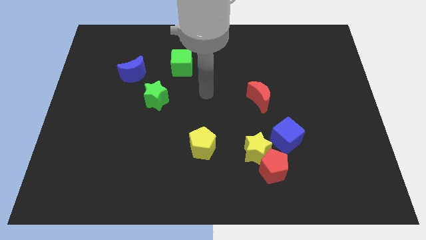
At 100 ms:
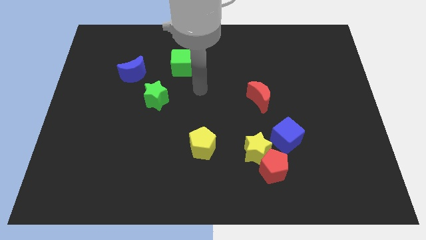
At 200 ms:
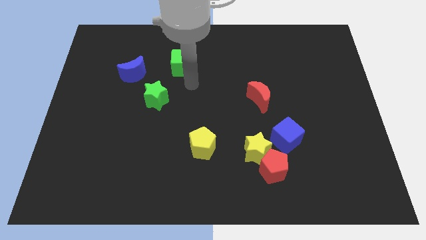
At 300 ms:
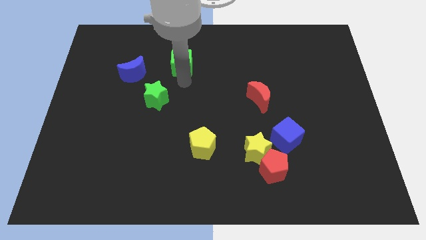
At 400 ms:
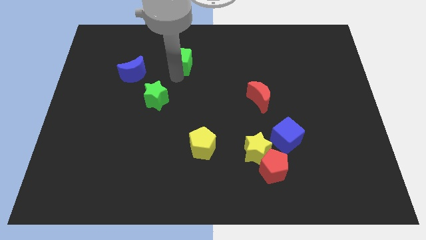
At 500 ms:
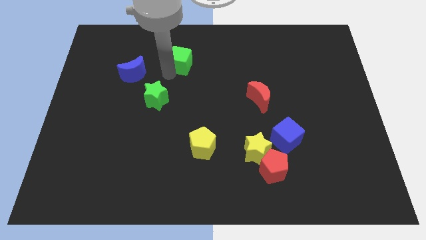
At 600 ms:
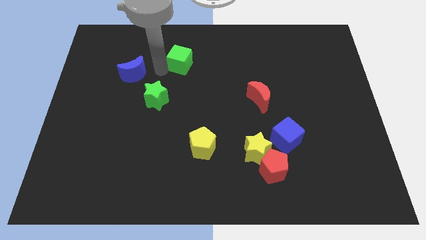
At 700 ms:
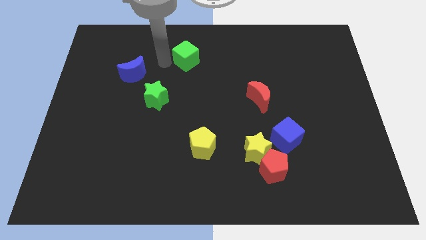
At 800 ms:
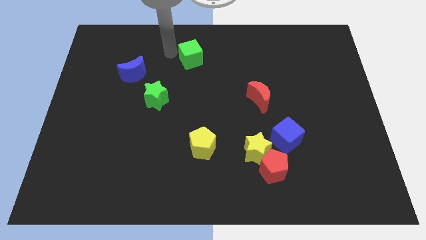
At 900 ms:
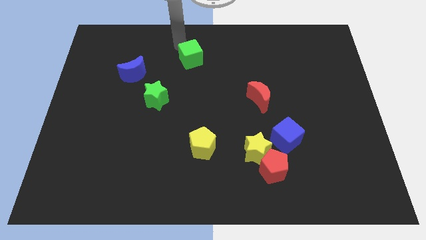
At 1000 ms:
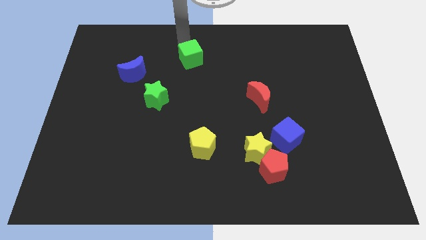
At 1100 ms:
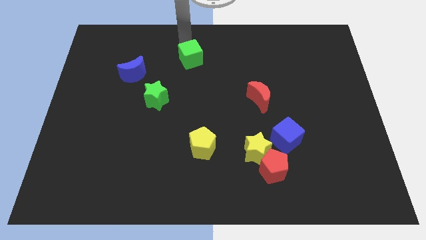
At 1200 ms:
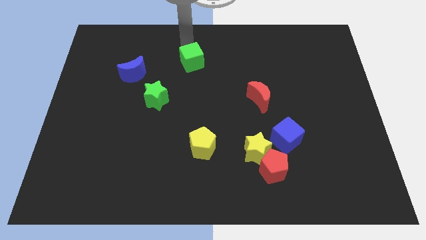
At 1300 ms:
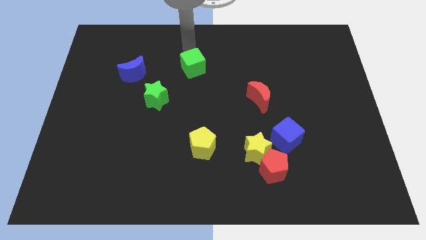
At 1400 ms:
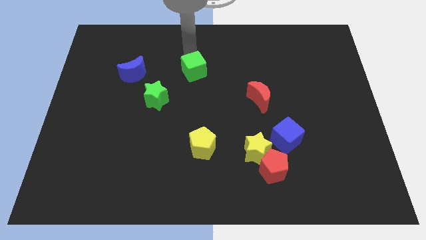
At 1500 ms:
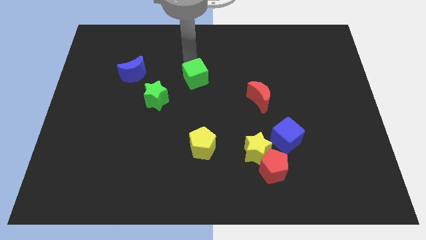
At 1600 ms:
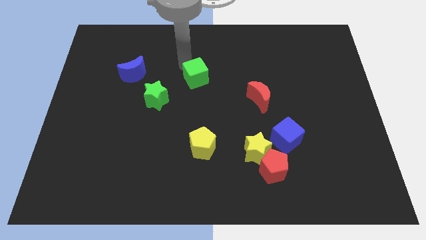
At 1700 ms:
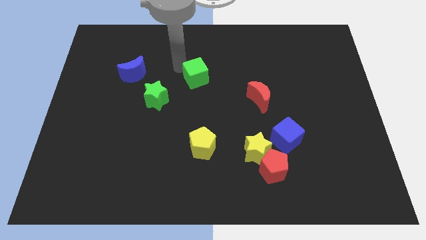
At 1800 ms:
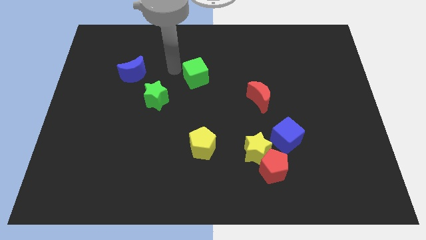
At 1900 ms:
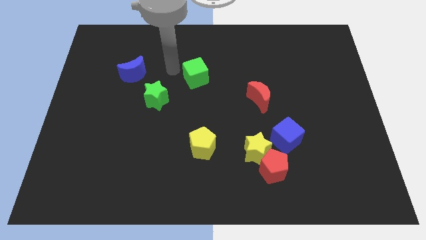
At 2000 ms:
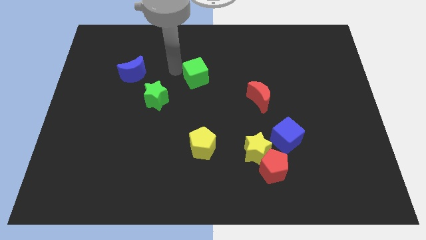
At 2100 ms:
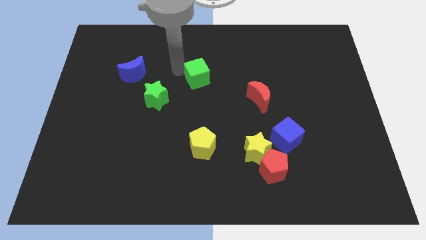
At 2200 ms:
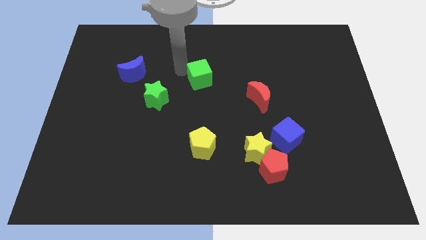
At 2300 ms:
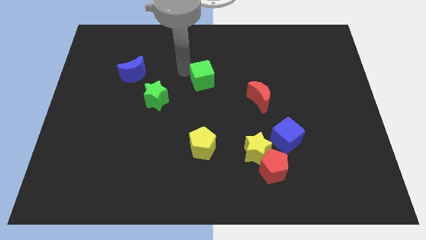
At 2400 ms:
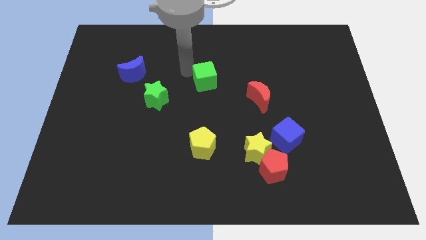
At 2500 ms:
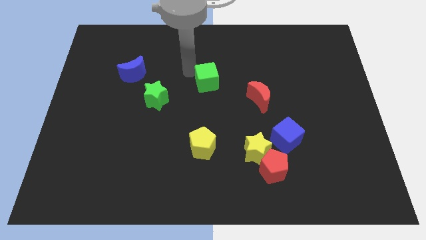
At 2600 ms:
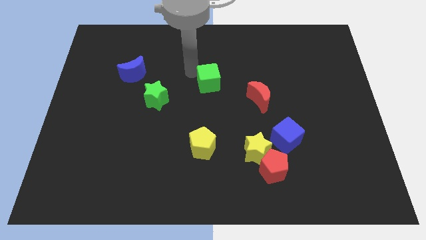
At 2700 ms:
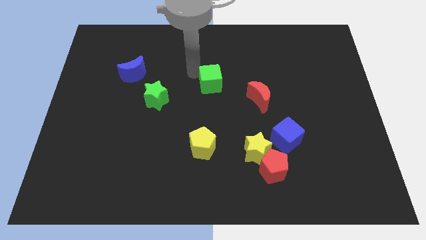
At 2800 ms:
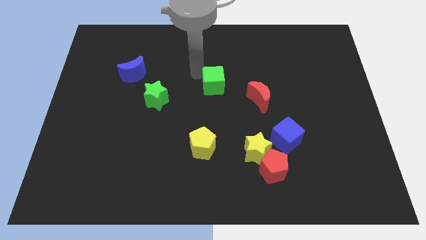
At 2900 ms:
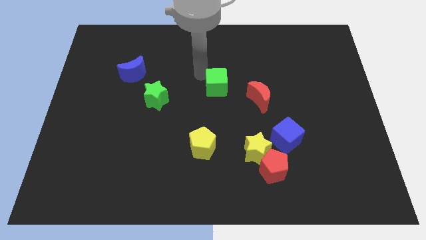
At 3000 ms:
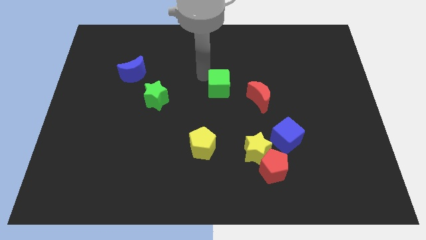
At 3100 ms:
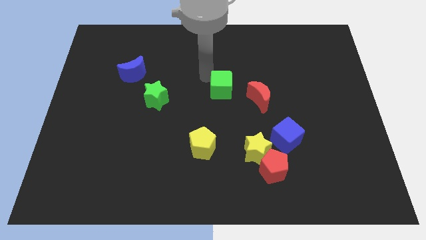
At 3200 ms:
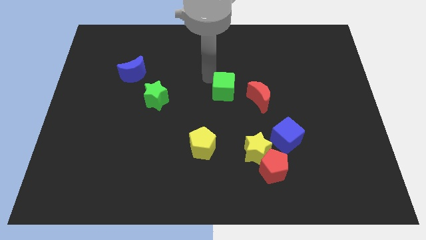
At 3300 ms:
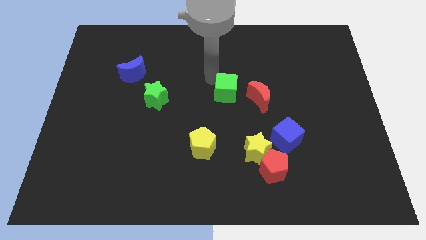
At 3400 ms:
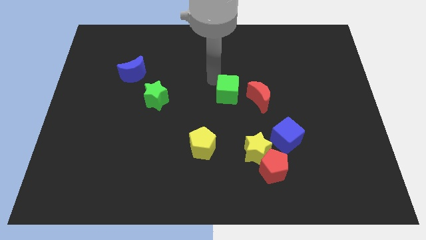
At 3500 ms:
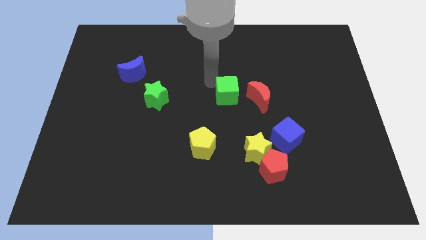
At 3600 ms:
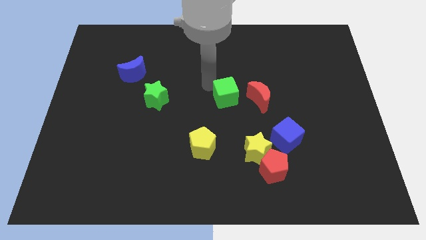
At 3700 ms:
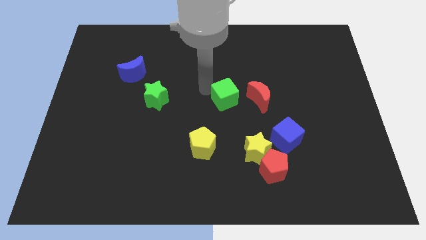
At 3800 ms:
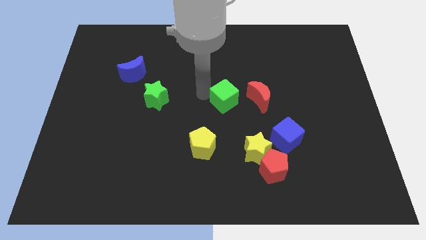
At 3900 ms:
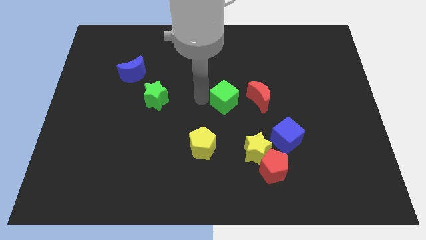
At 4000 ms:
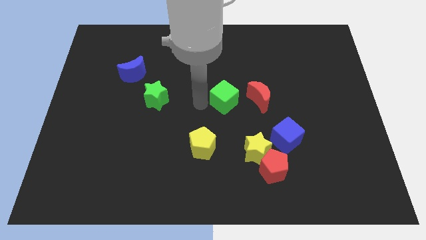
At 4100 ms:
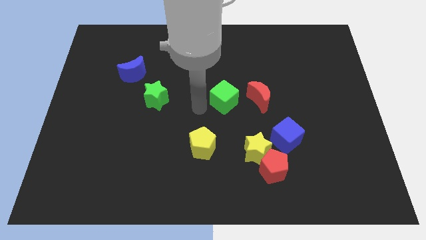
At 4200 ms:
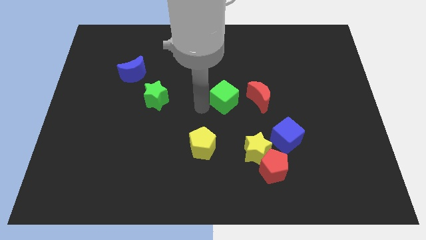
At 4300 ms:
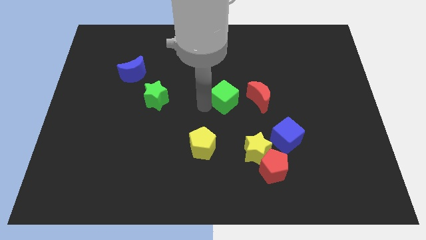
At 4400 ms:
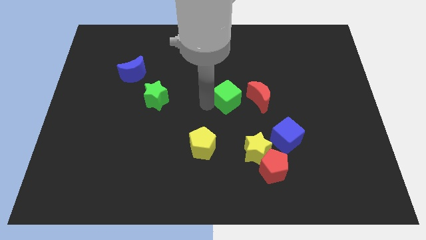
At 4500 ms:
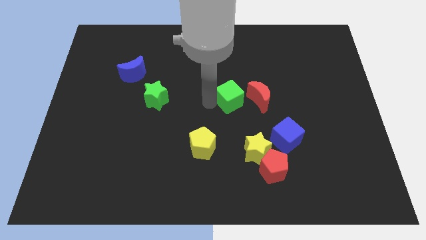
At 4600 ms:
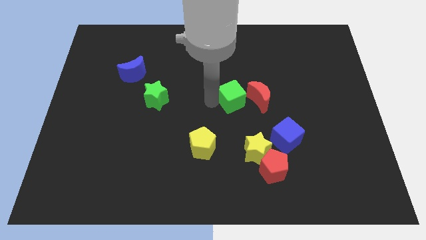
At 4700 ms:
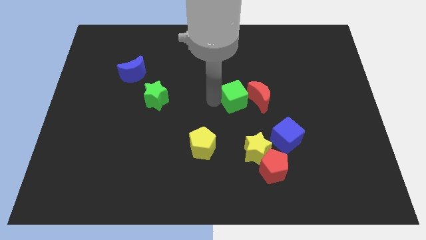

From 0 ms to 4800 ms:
move the green cube towards the red moon

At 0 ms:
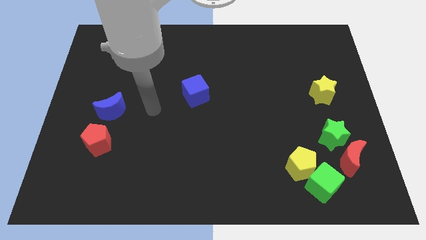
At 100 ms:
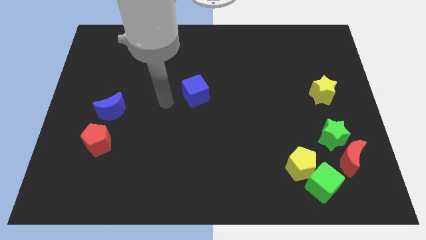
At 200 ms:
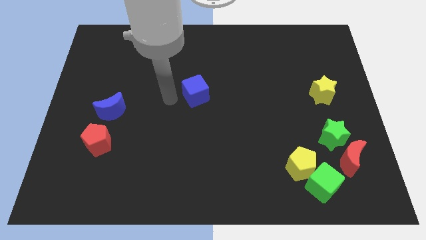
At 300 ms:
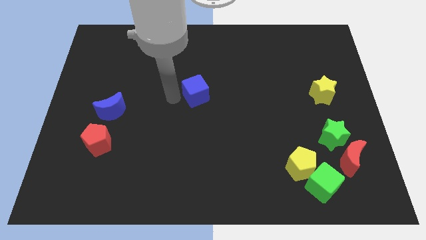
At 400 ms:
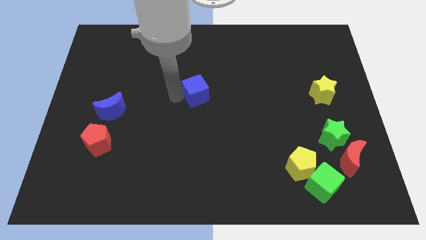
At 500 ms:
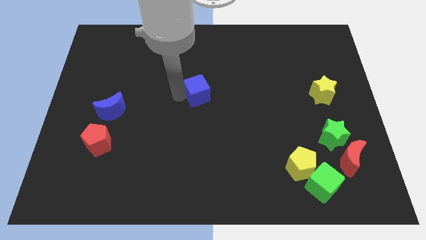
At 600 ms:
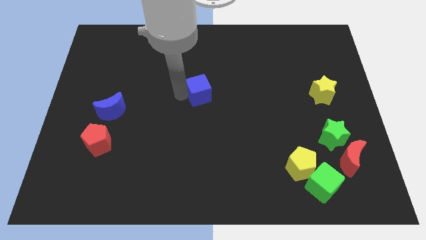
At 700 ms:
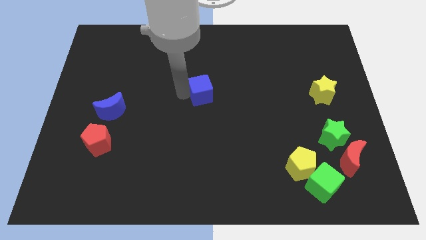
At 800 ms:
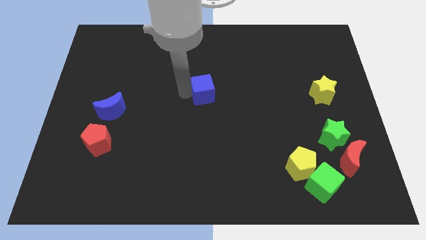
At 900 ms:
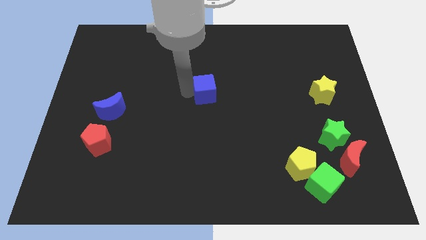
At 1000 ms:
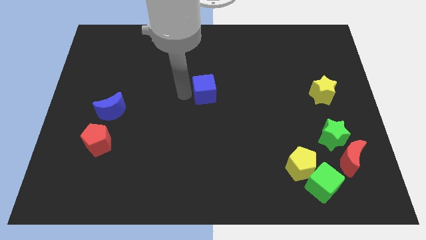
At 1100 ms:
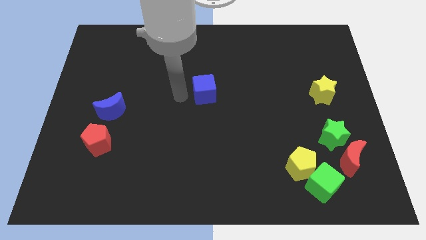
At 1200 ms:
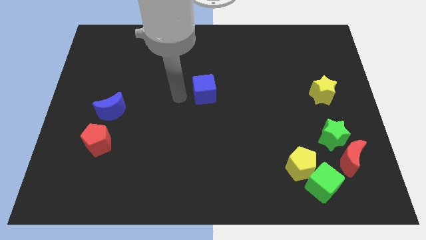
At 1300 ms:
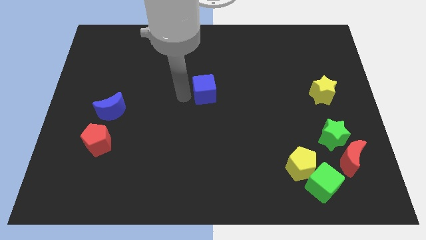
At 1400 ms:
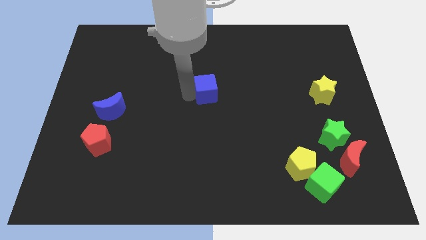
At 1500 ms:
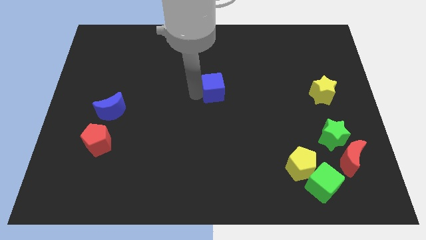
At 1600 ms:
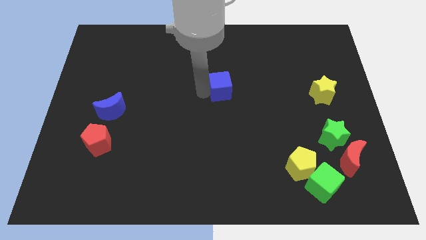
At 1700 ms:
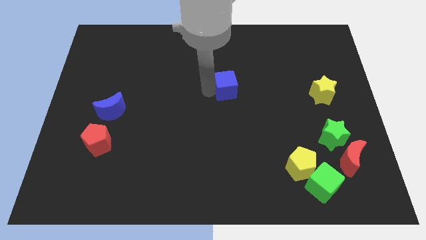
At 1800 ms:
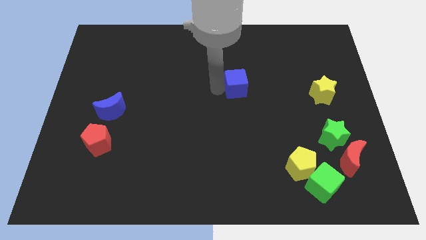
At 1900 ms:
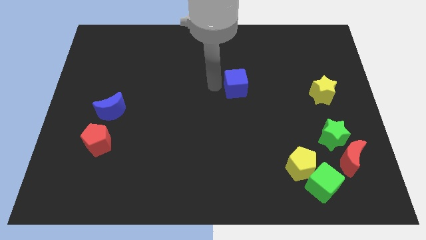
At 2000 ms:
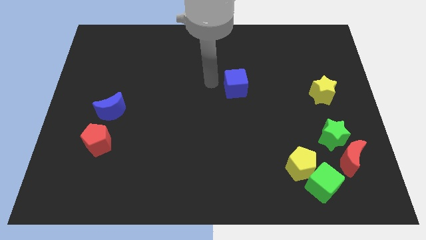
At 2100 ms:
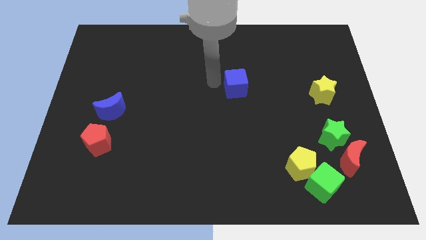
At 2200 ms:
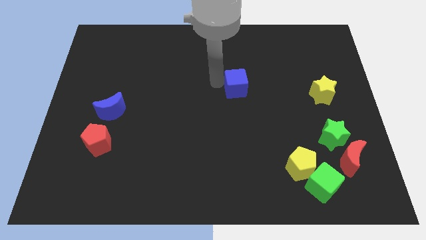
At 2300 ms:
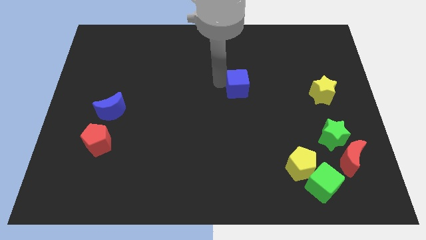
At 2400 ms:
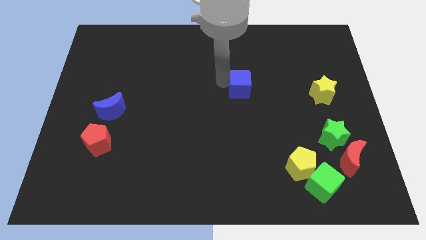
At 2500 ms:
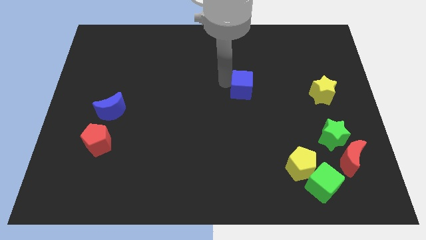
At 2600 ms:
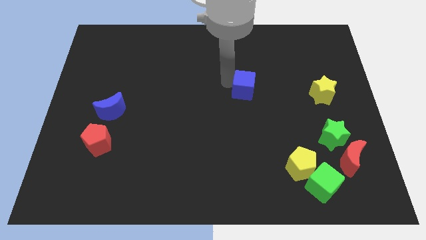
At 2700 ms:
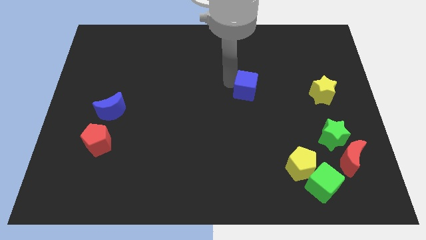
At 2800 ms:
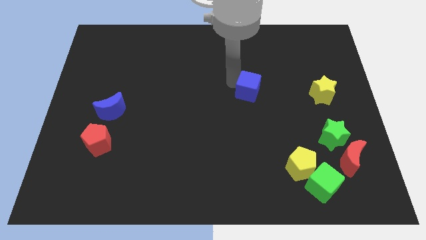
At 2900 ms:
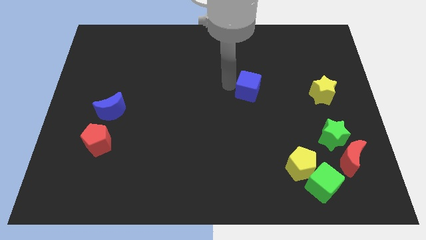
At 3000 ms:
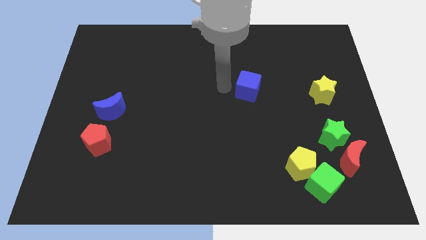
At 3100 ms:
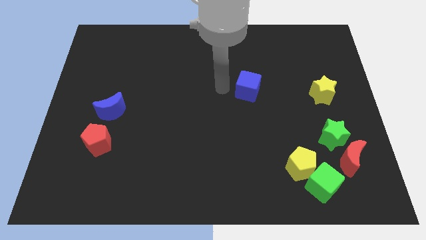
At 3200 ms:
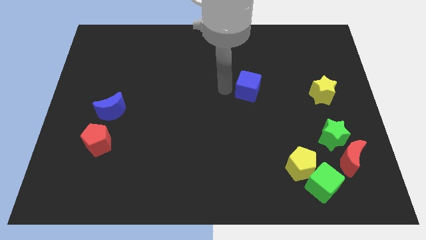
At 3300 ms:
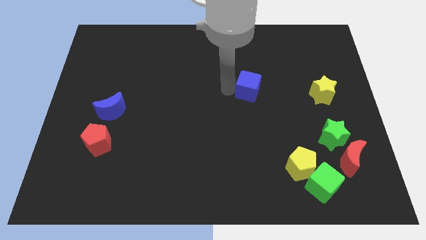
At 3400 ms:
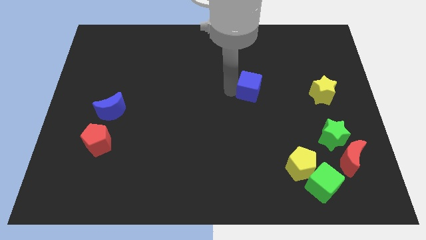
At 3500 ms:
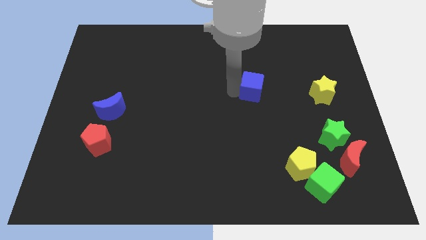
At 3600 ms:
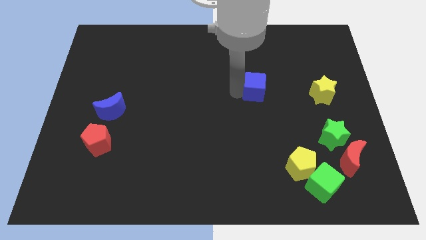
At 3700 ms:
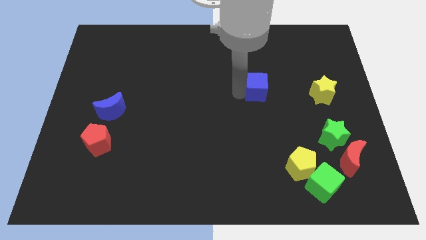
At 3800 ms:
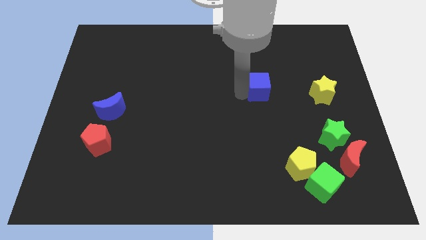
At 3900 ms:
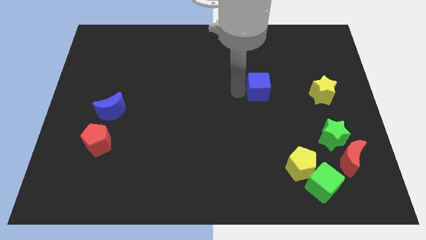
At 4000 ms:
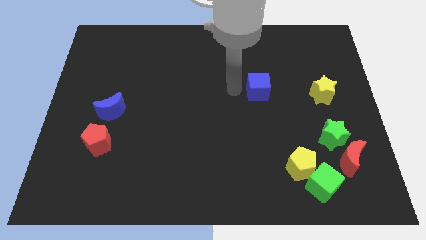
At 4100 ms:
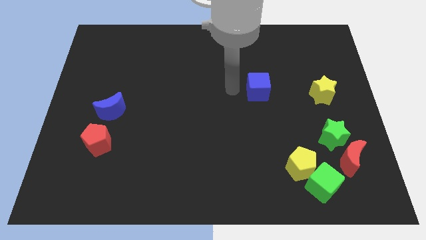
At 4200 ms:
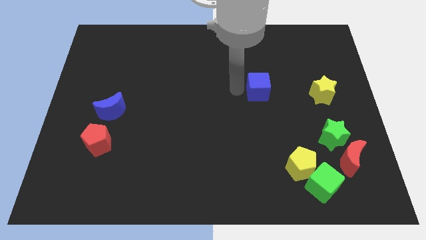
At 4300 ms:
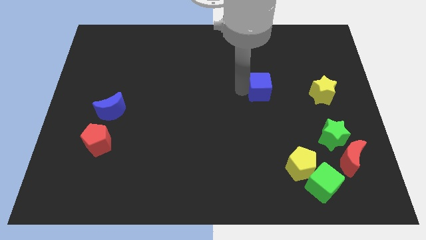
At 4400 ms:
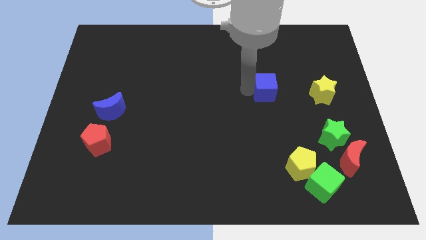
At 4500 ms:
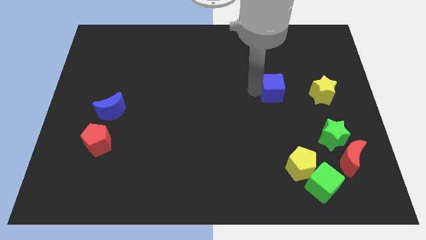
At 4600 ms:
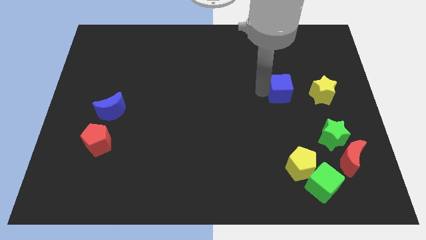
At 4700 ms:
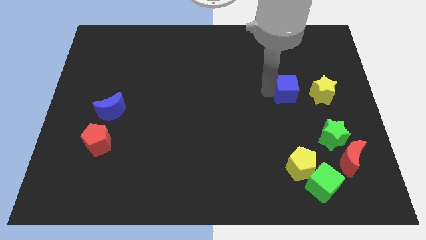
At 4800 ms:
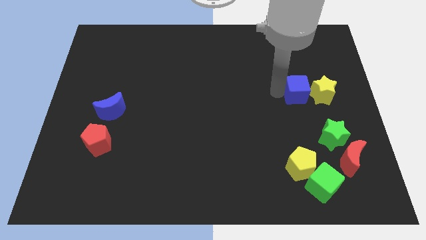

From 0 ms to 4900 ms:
push the blue cube next to the yellow star
